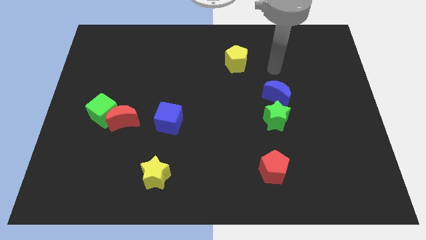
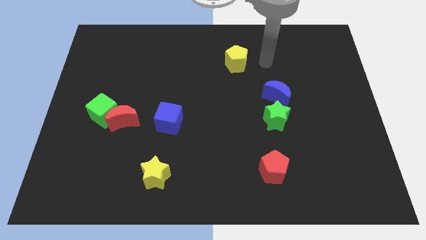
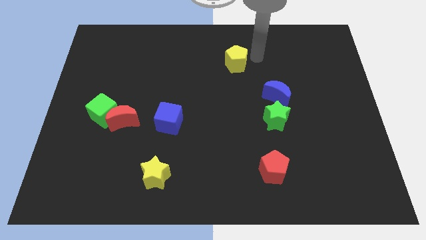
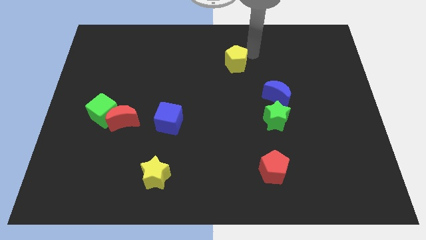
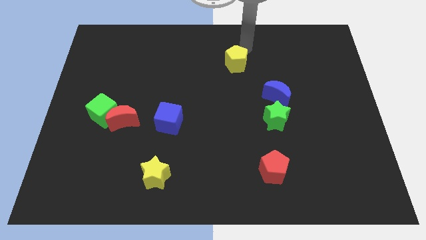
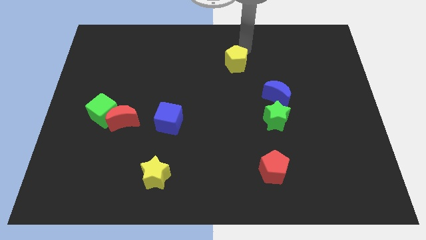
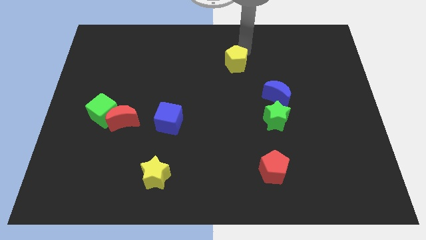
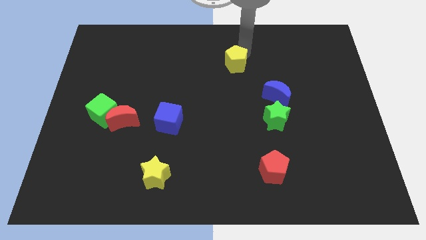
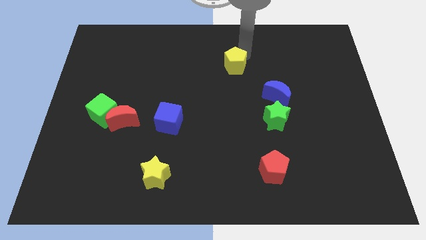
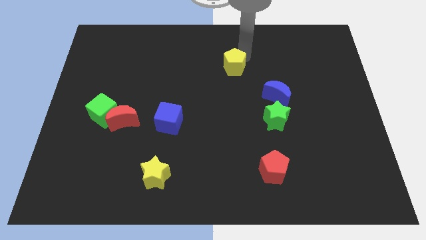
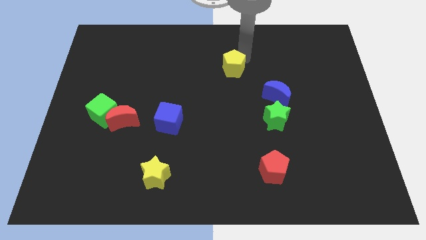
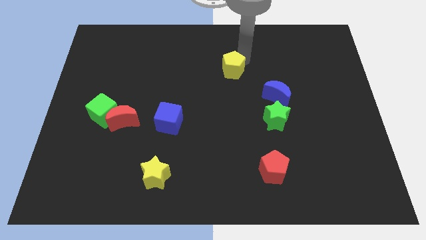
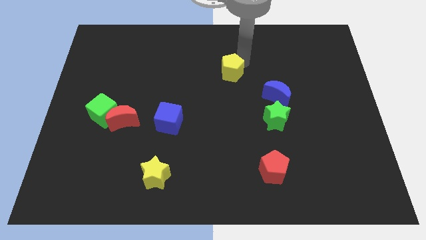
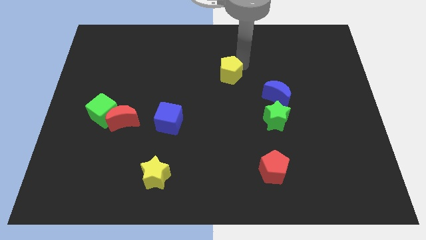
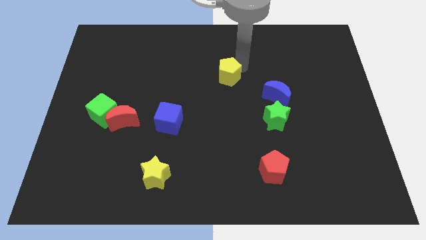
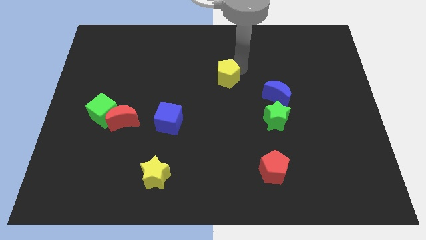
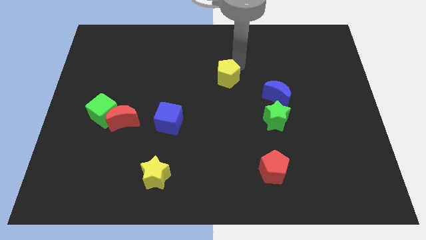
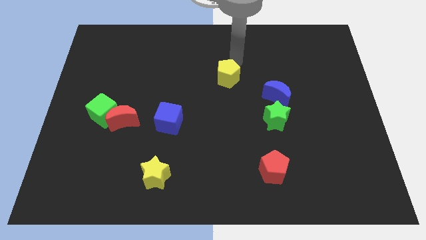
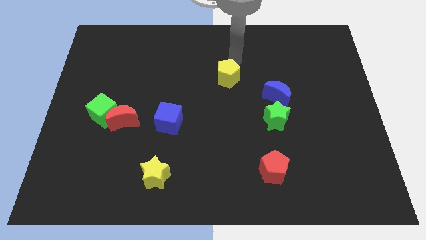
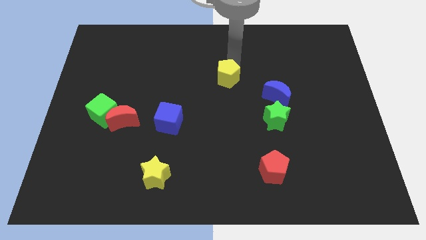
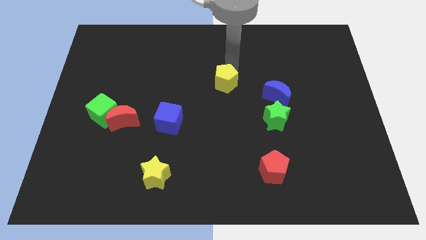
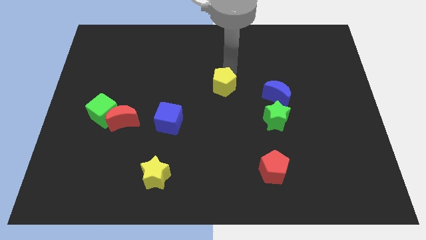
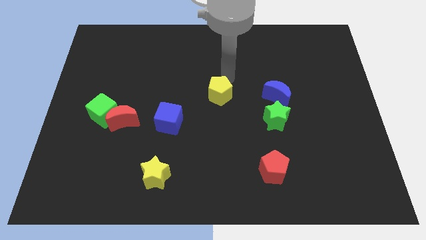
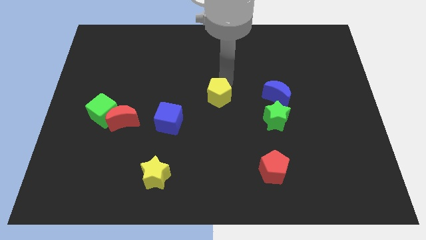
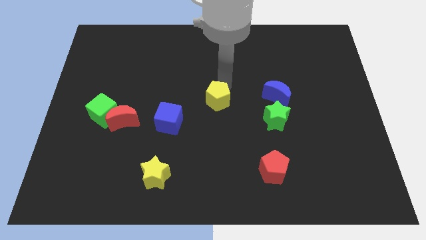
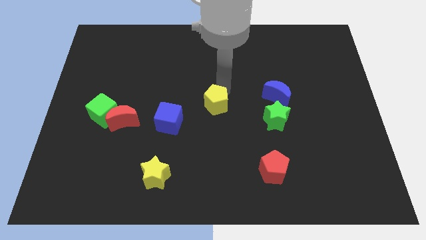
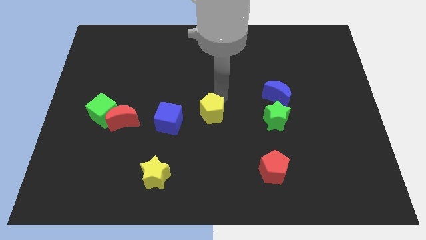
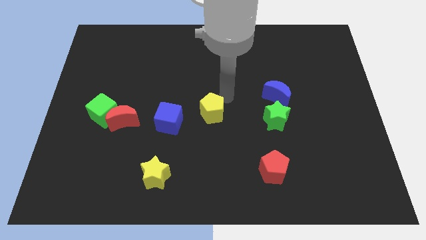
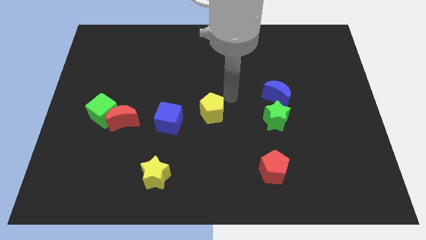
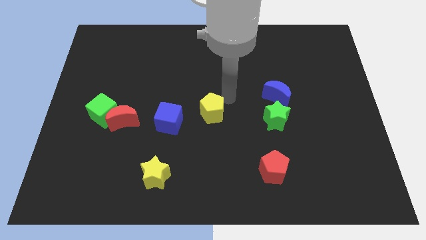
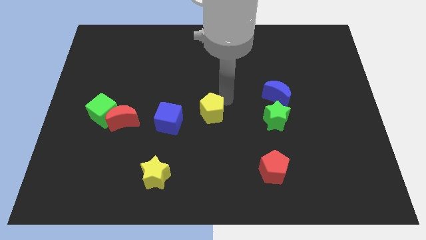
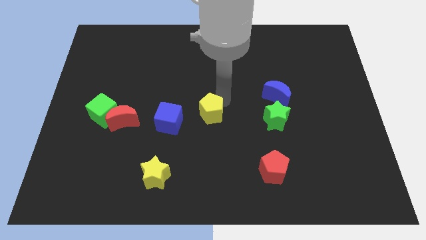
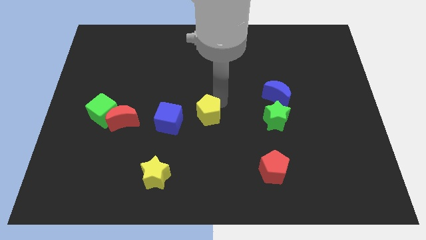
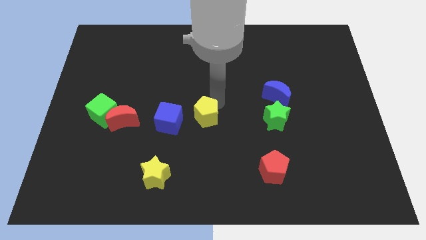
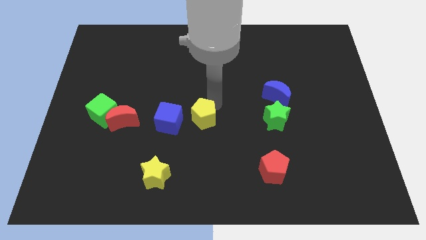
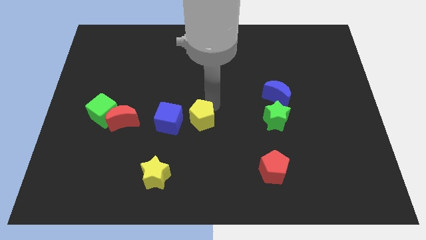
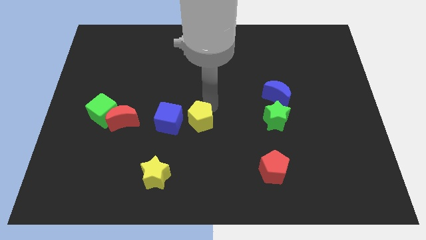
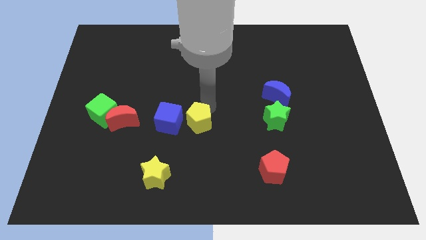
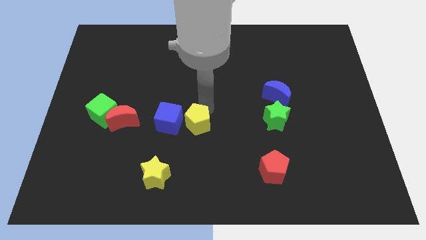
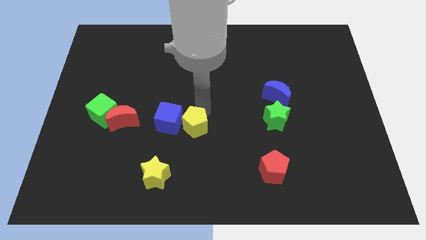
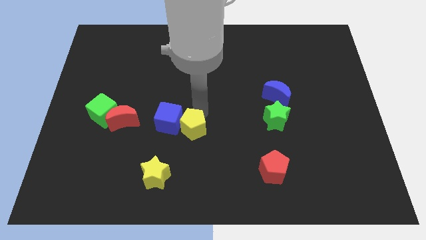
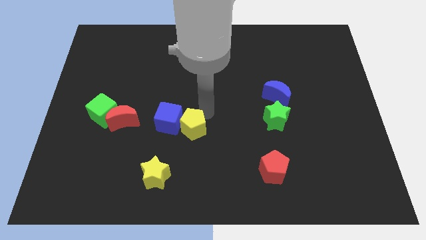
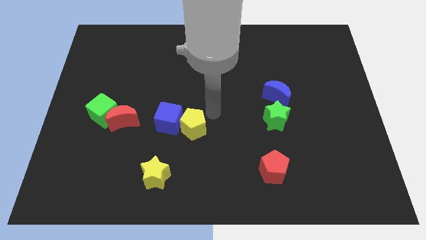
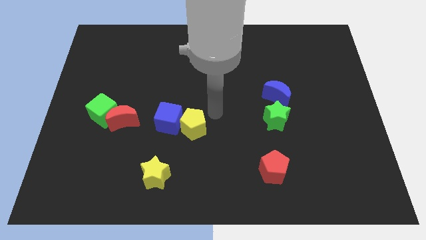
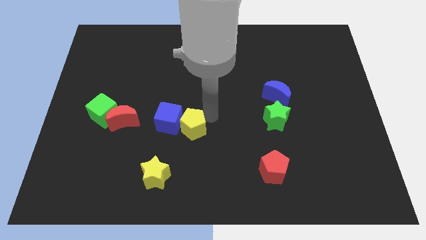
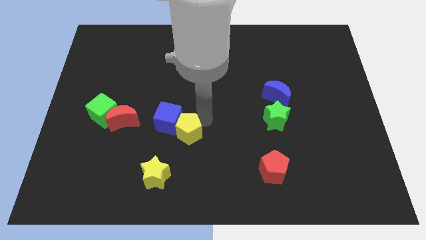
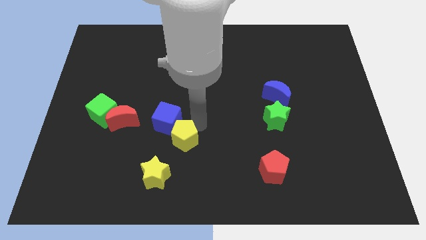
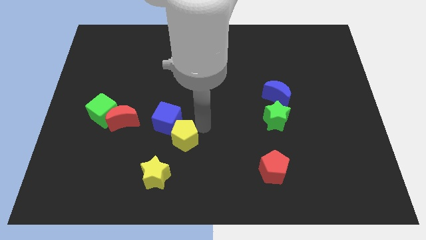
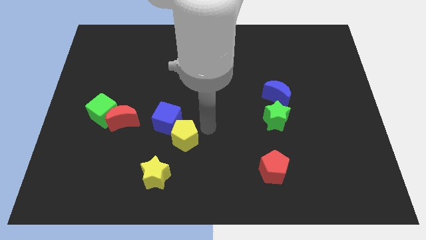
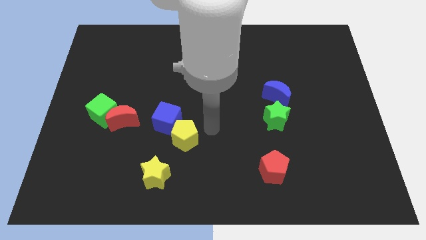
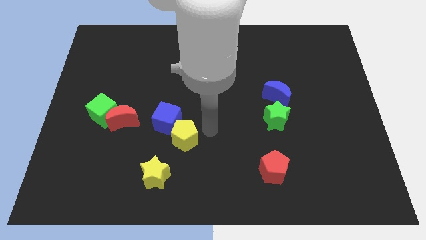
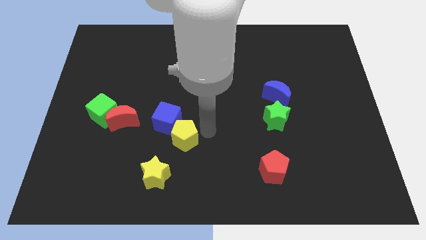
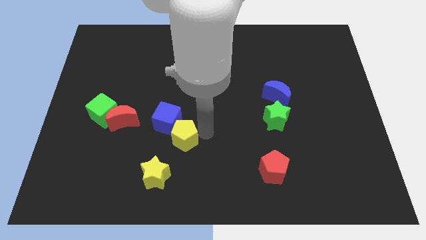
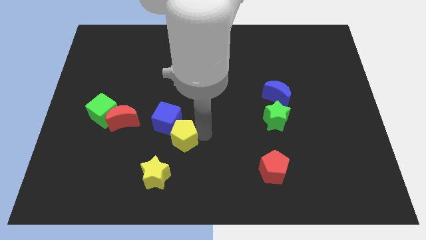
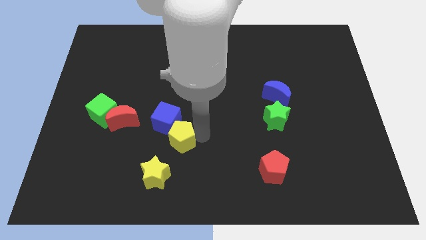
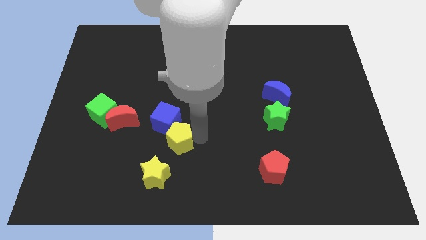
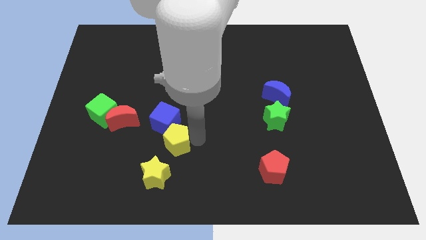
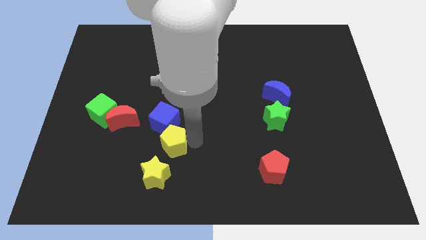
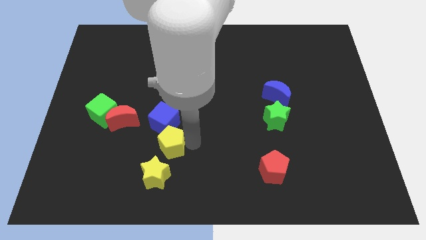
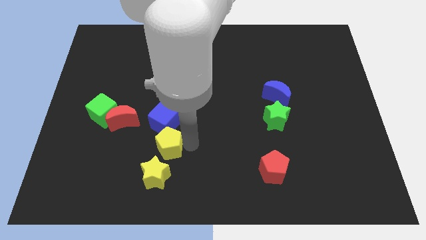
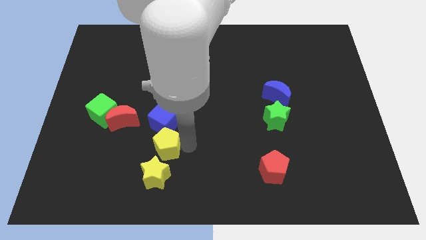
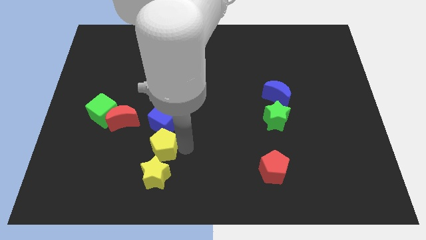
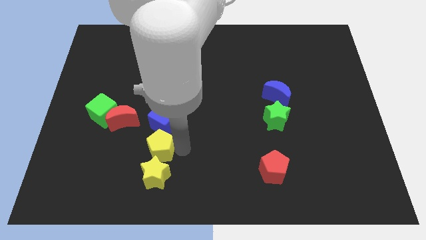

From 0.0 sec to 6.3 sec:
move the yellow pentagon to the top left side of the yellow star
